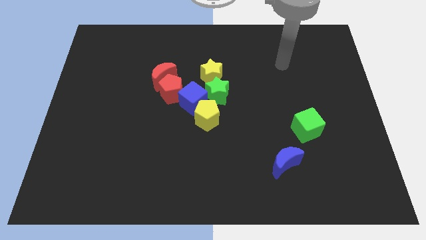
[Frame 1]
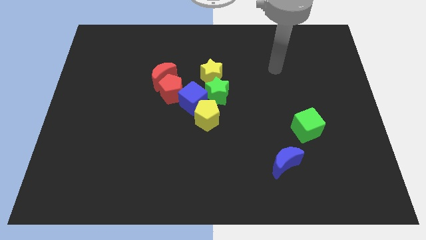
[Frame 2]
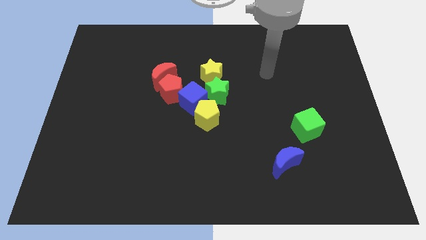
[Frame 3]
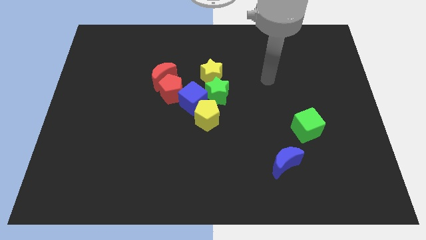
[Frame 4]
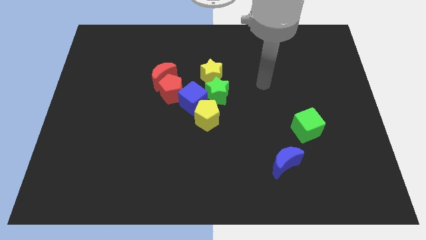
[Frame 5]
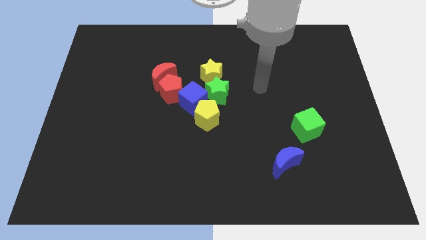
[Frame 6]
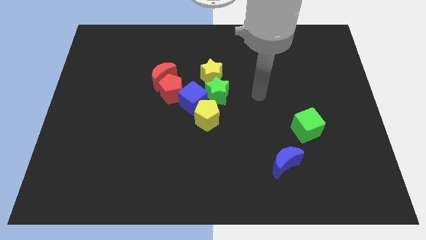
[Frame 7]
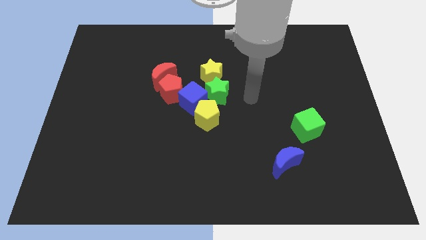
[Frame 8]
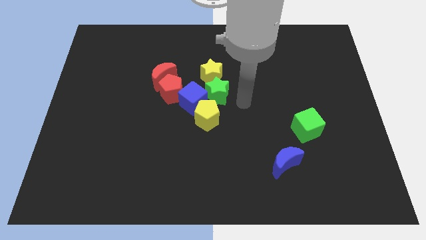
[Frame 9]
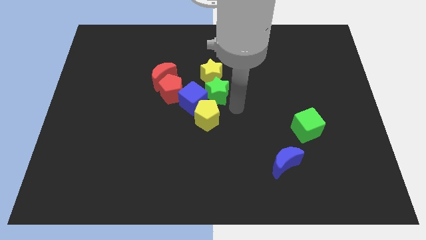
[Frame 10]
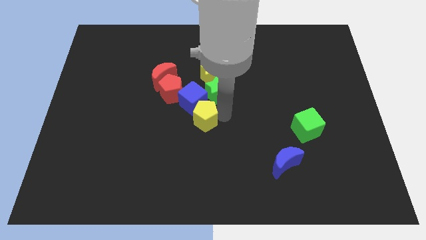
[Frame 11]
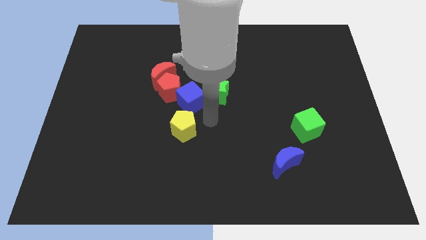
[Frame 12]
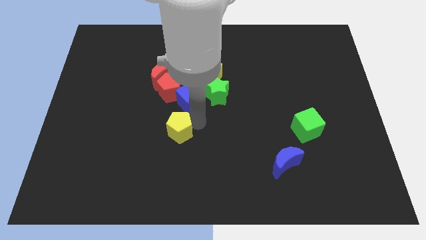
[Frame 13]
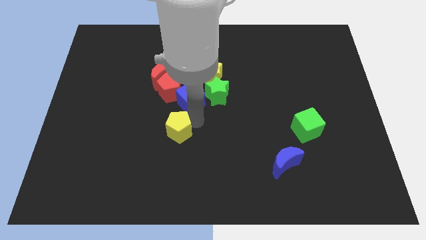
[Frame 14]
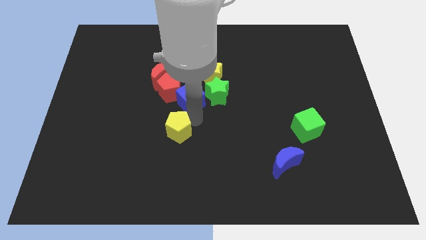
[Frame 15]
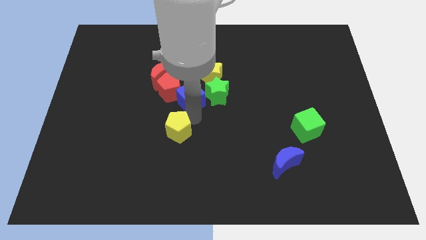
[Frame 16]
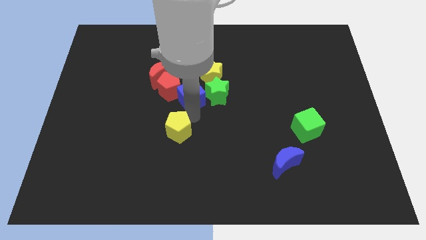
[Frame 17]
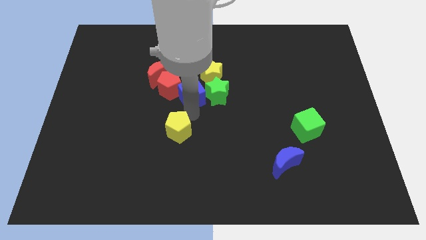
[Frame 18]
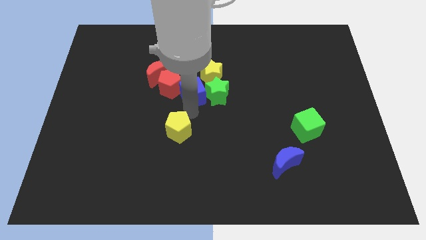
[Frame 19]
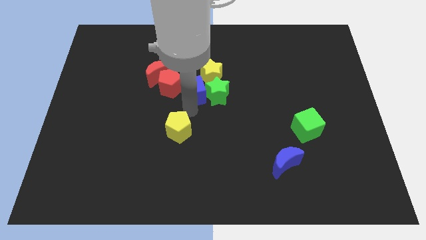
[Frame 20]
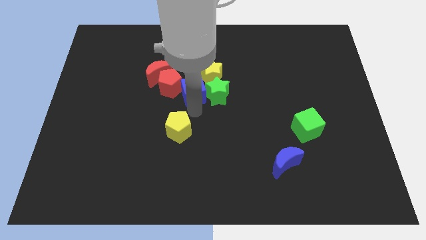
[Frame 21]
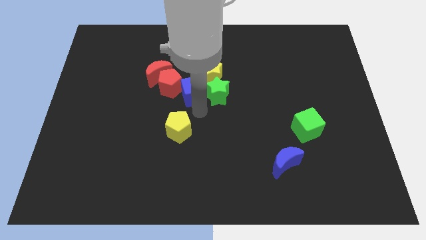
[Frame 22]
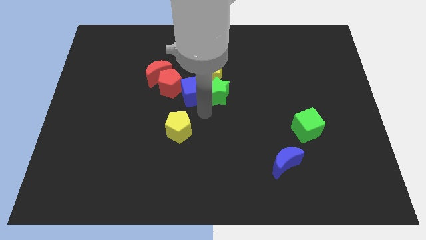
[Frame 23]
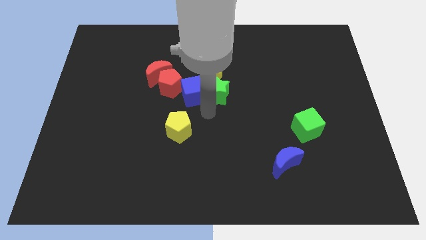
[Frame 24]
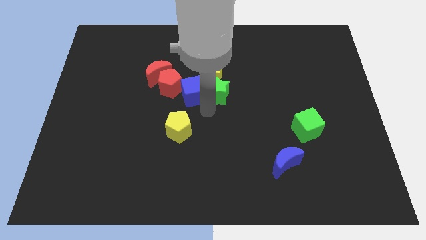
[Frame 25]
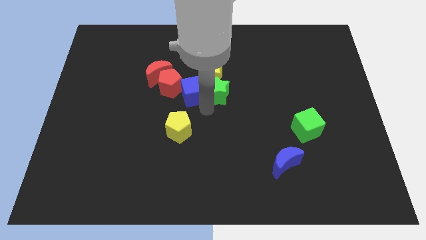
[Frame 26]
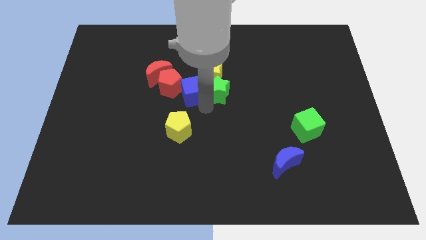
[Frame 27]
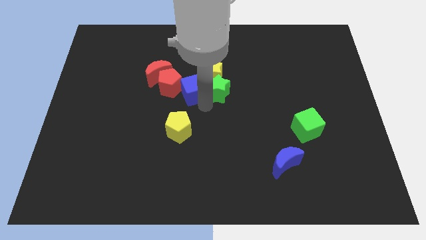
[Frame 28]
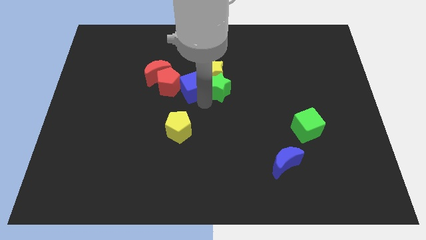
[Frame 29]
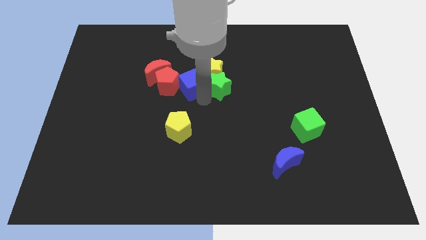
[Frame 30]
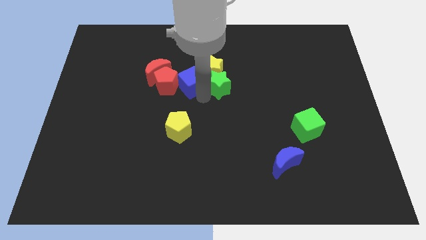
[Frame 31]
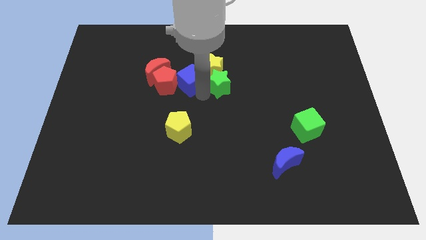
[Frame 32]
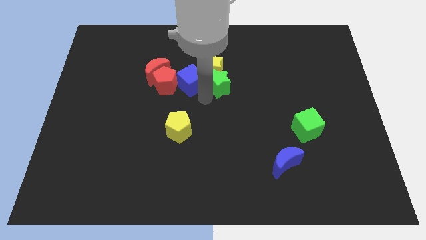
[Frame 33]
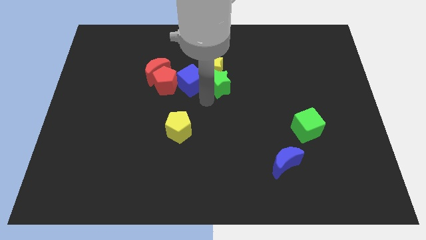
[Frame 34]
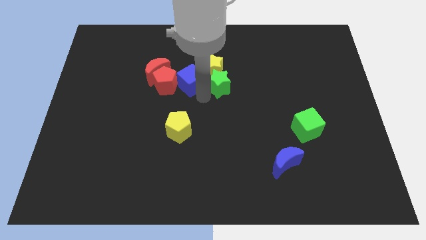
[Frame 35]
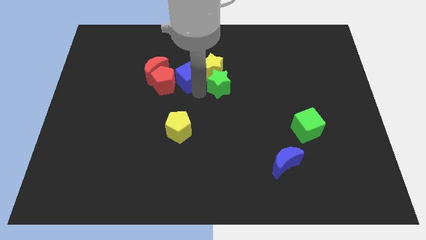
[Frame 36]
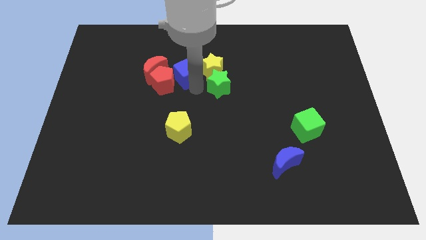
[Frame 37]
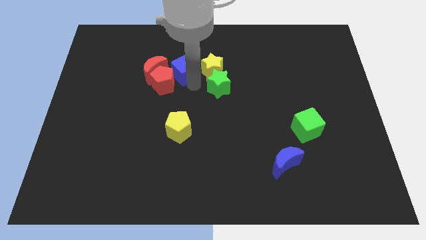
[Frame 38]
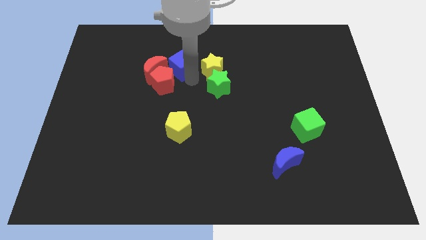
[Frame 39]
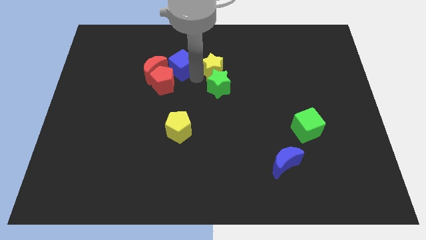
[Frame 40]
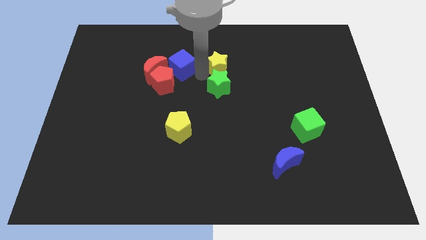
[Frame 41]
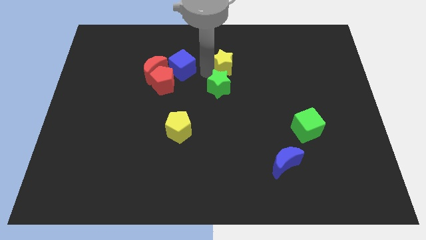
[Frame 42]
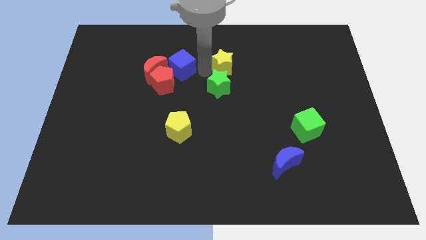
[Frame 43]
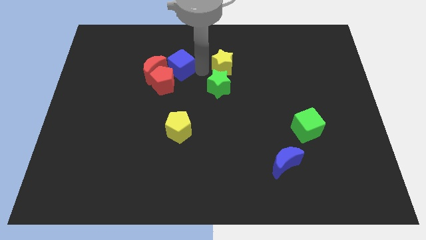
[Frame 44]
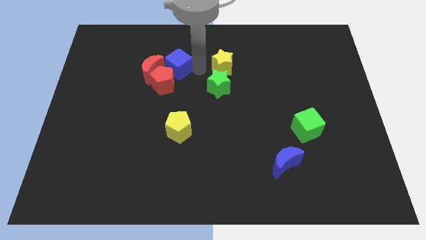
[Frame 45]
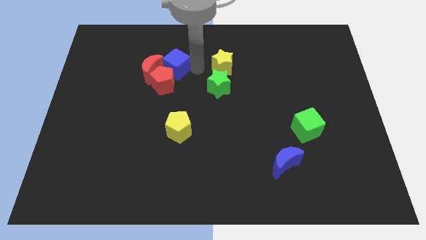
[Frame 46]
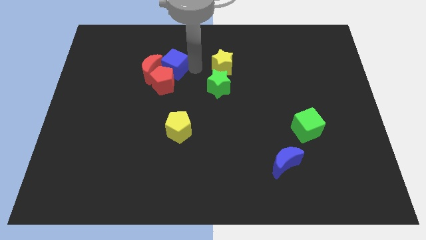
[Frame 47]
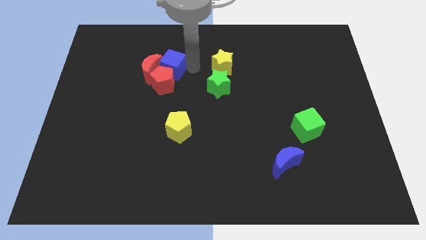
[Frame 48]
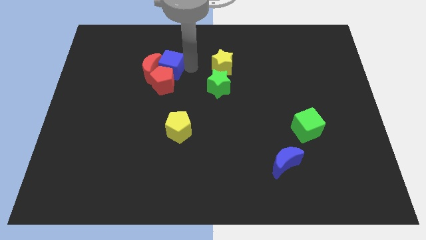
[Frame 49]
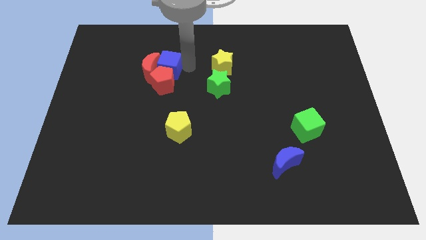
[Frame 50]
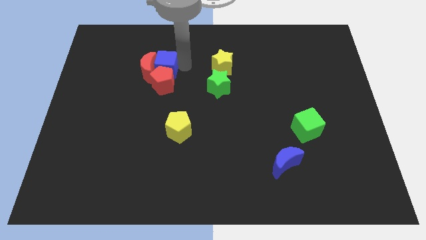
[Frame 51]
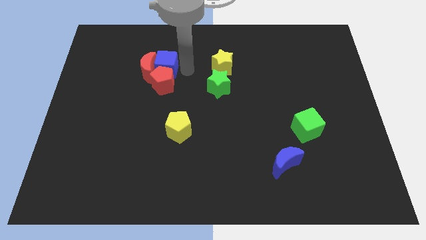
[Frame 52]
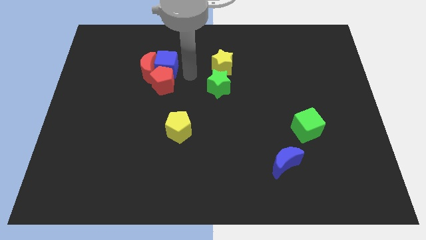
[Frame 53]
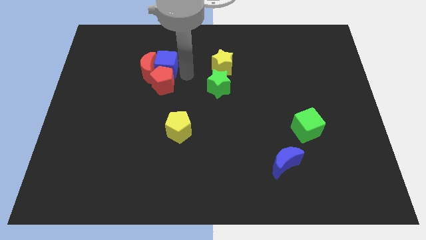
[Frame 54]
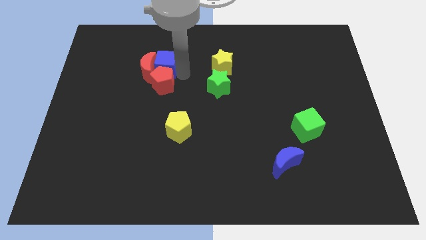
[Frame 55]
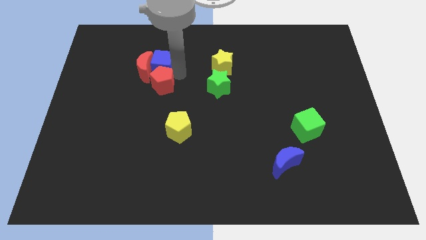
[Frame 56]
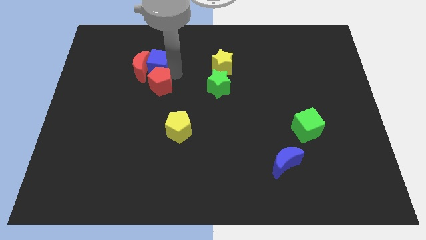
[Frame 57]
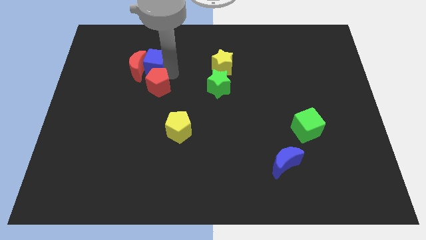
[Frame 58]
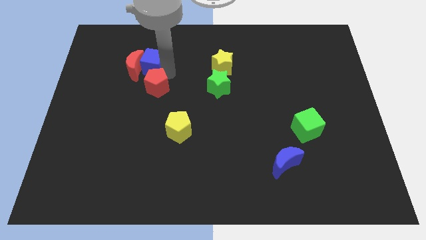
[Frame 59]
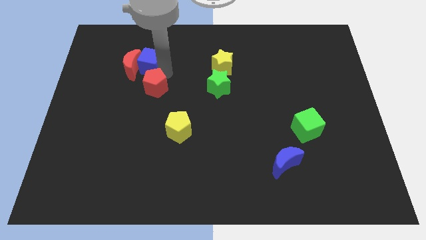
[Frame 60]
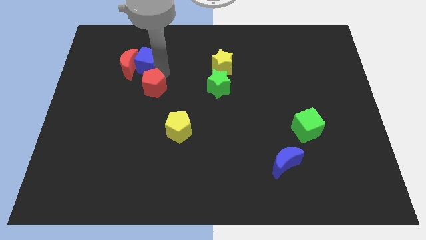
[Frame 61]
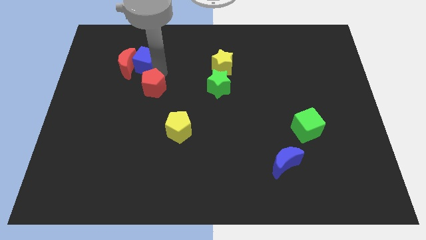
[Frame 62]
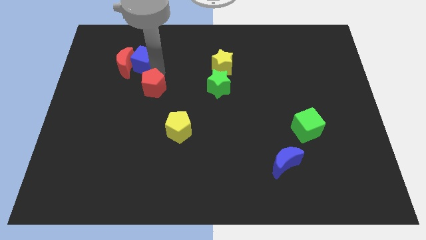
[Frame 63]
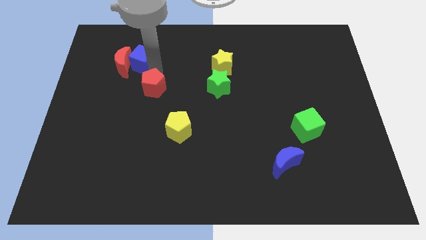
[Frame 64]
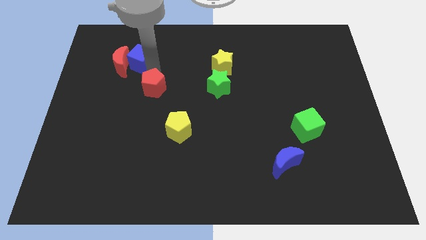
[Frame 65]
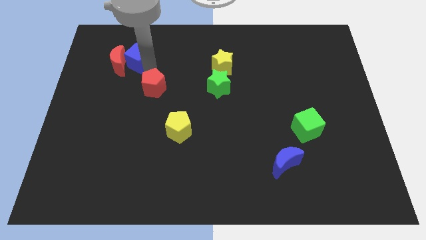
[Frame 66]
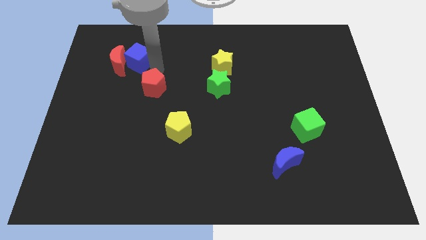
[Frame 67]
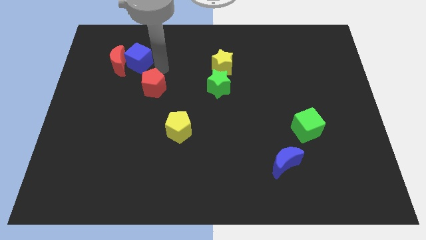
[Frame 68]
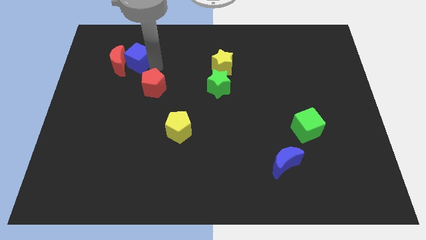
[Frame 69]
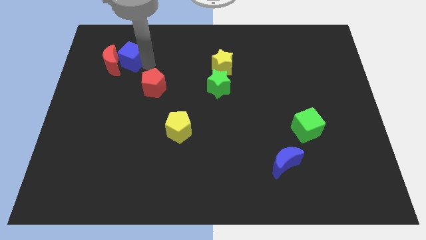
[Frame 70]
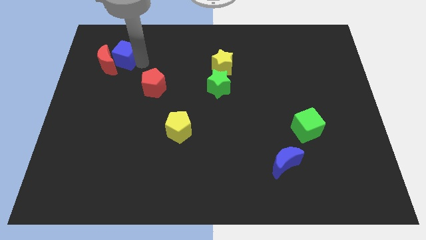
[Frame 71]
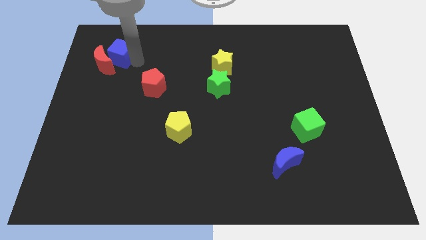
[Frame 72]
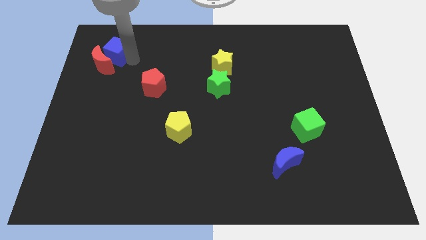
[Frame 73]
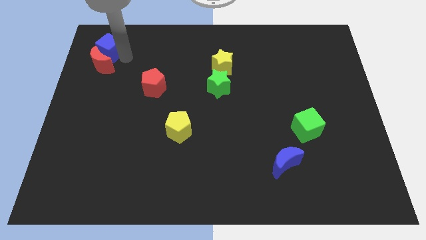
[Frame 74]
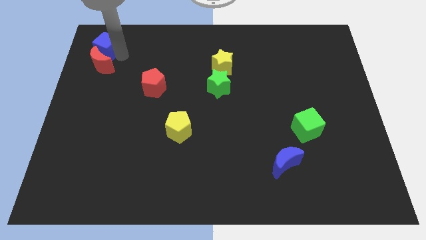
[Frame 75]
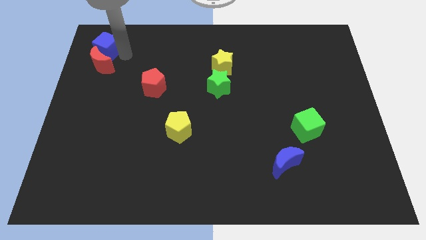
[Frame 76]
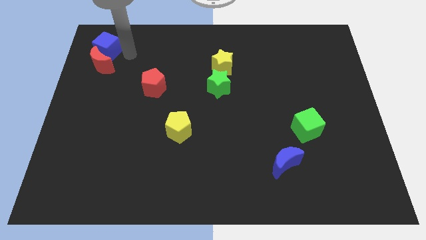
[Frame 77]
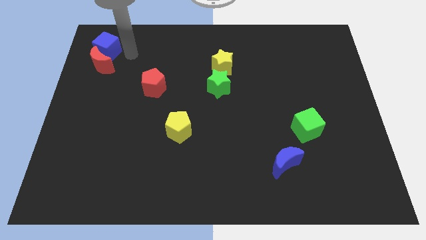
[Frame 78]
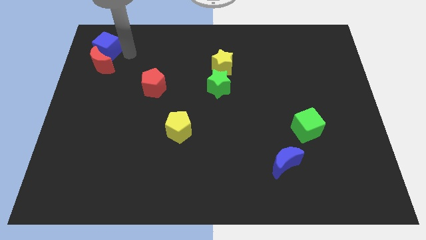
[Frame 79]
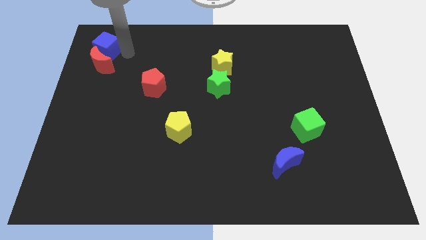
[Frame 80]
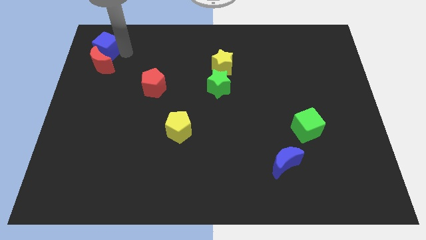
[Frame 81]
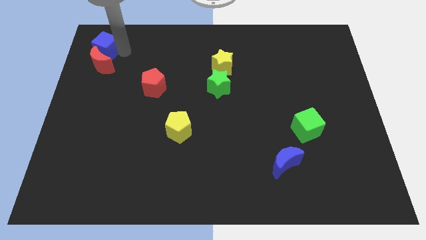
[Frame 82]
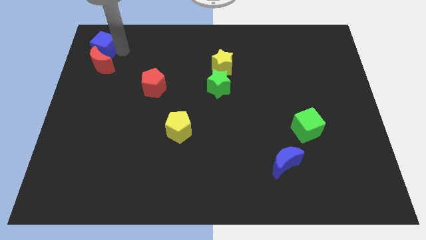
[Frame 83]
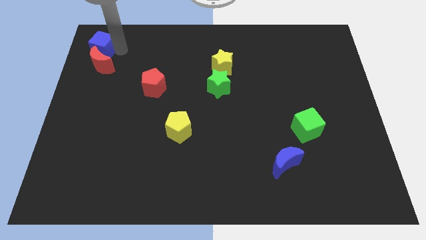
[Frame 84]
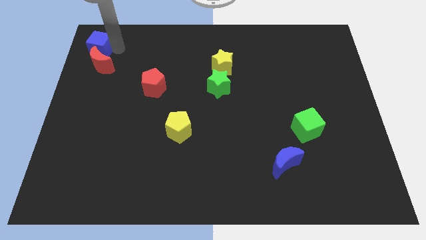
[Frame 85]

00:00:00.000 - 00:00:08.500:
move the blue cube to the top left corner
